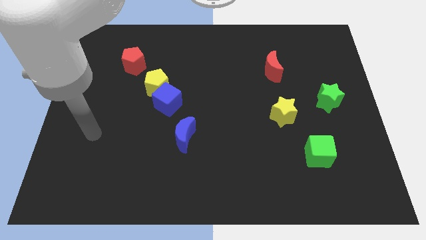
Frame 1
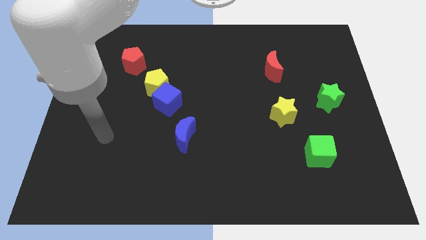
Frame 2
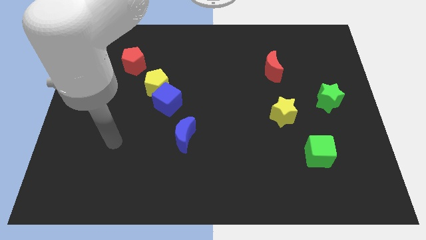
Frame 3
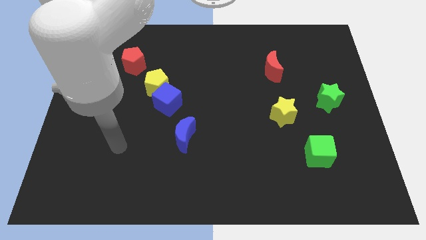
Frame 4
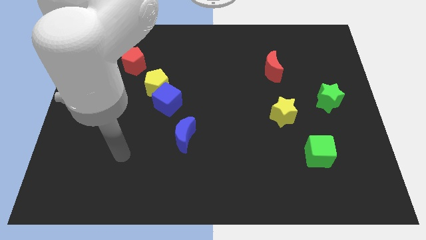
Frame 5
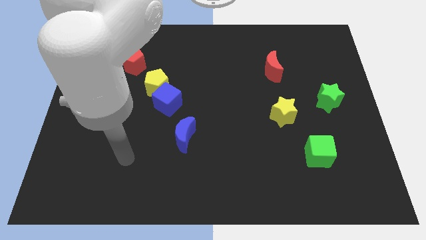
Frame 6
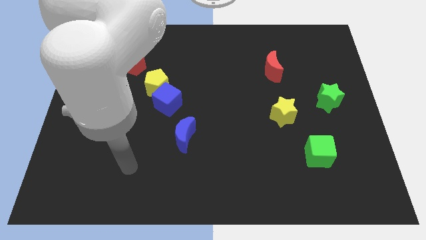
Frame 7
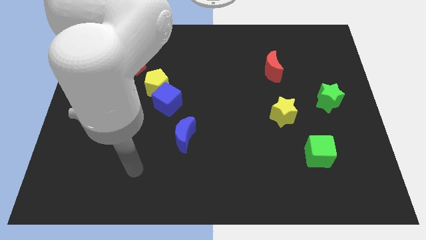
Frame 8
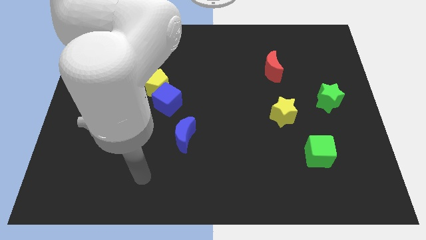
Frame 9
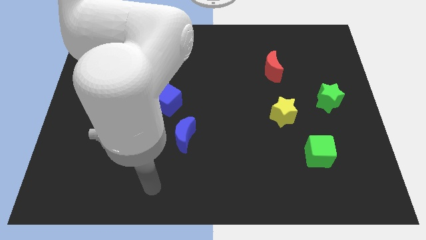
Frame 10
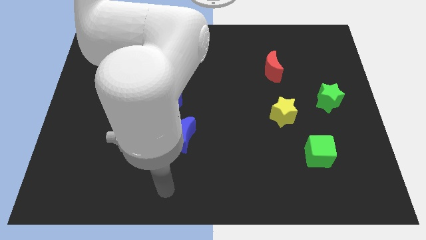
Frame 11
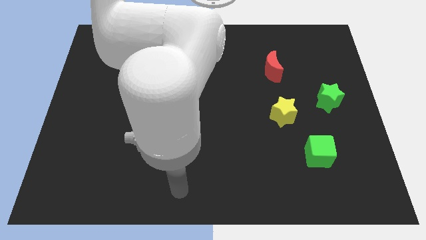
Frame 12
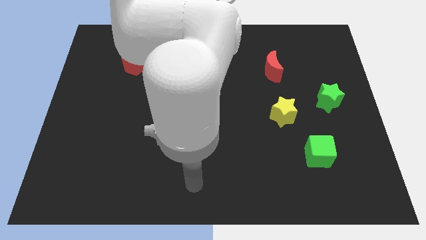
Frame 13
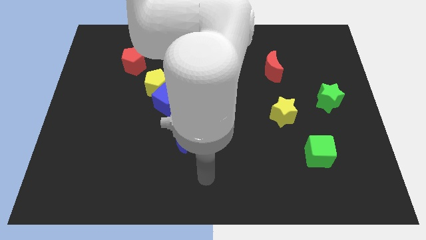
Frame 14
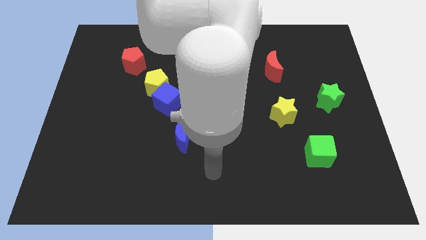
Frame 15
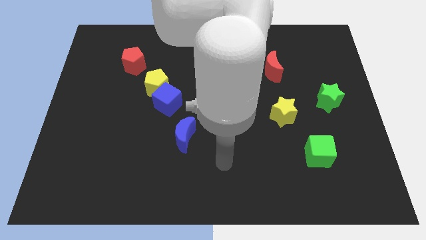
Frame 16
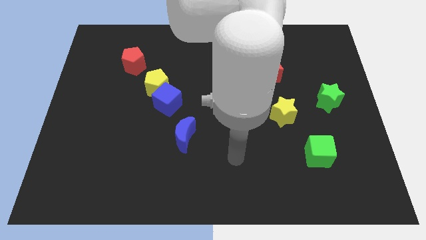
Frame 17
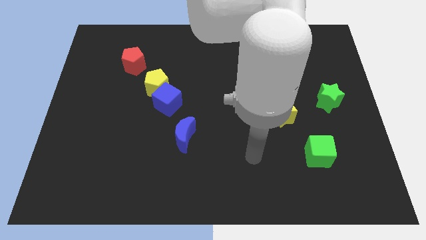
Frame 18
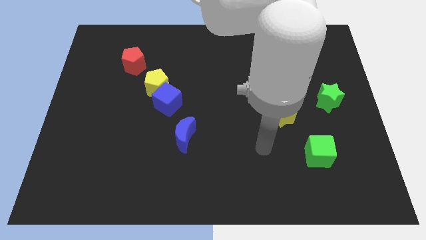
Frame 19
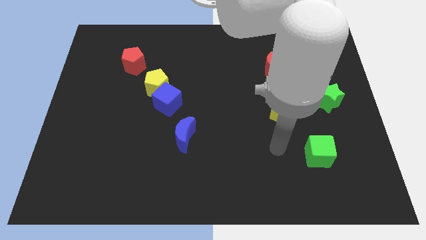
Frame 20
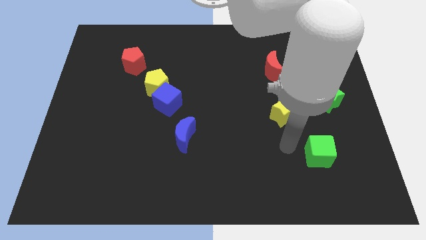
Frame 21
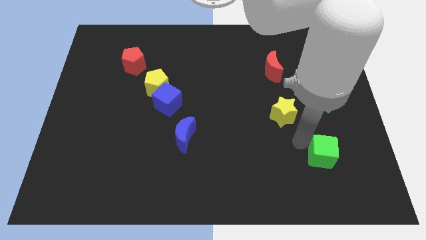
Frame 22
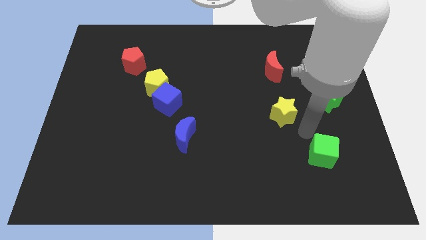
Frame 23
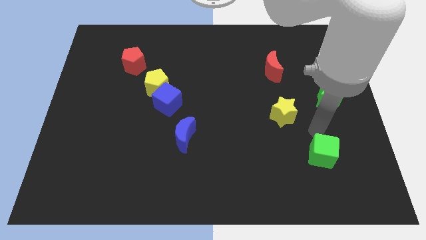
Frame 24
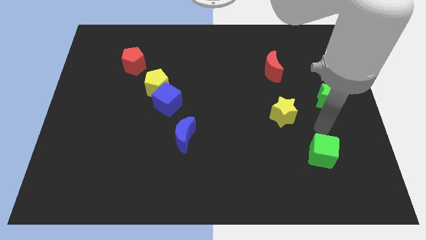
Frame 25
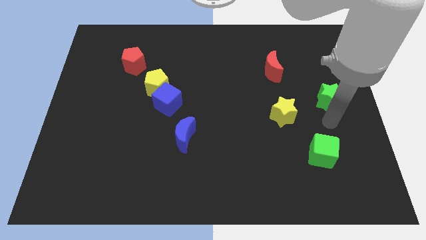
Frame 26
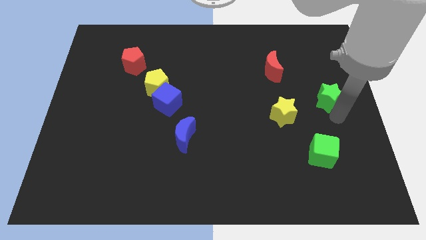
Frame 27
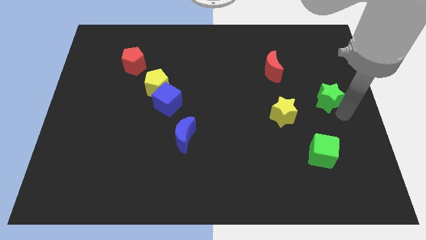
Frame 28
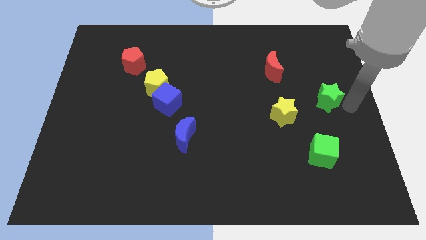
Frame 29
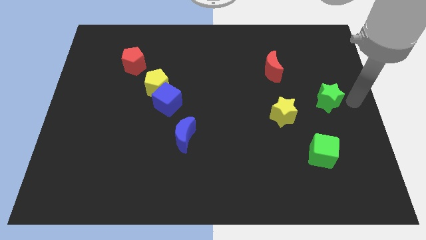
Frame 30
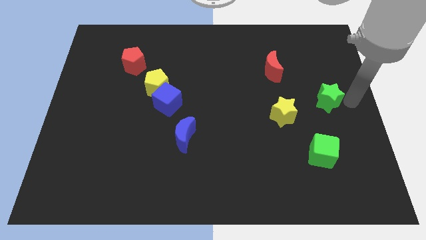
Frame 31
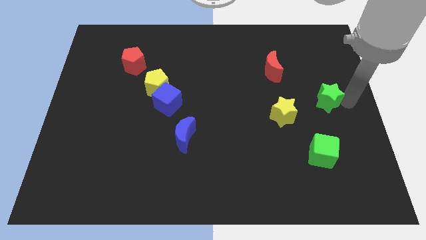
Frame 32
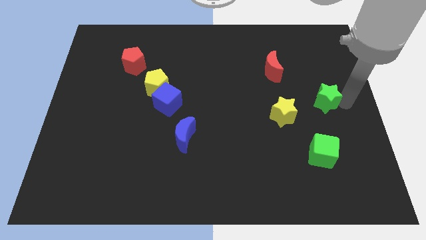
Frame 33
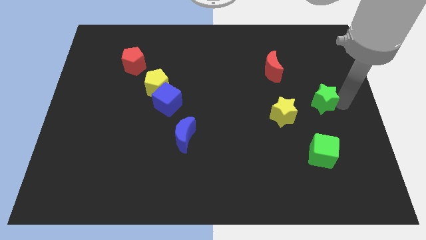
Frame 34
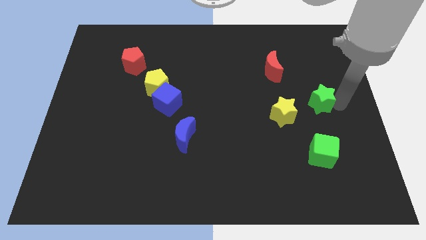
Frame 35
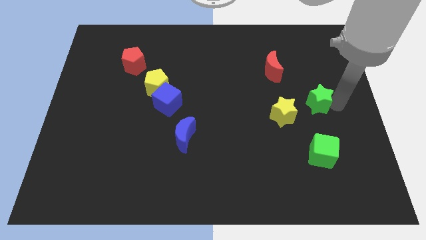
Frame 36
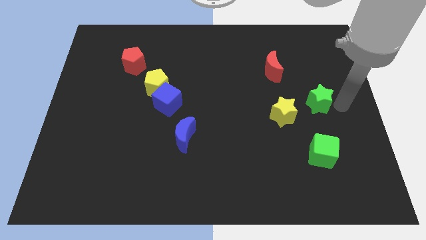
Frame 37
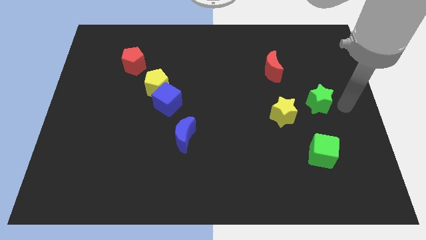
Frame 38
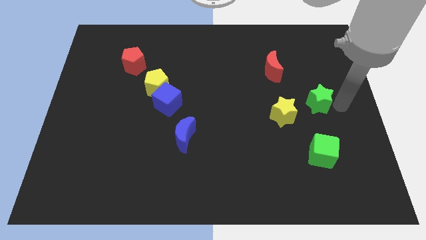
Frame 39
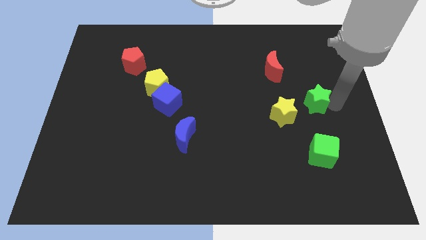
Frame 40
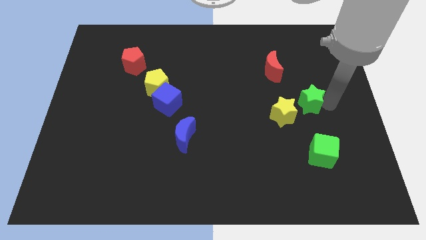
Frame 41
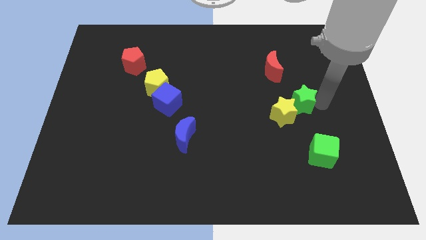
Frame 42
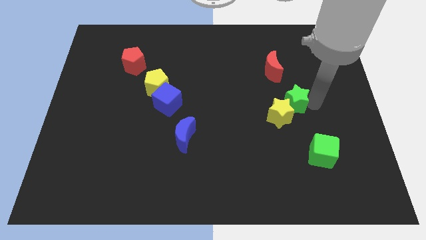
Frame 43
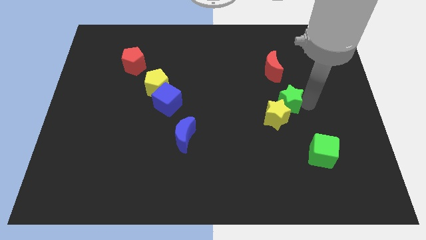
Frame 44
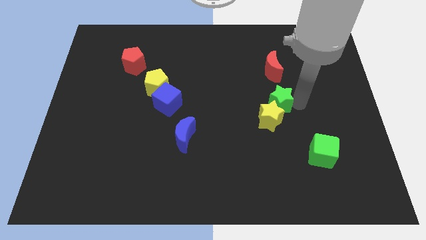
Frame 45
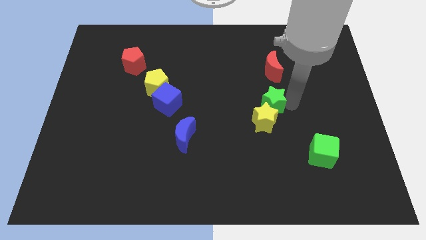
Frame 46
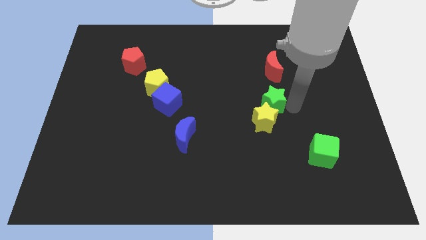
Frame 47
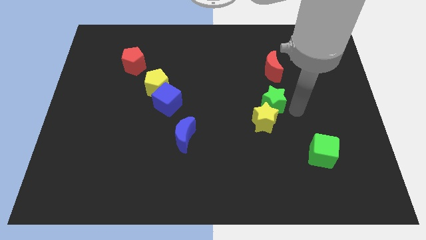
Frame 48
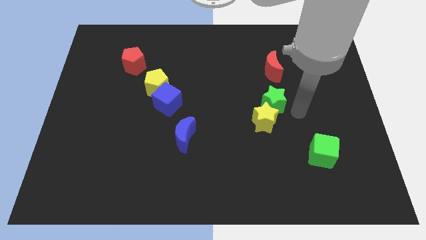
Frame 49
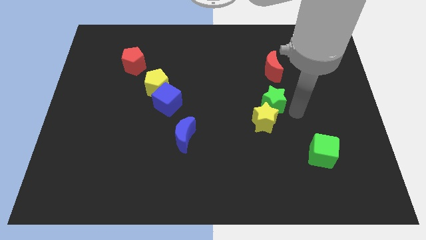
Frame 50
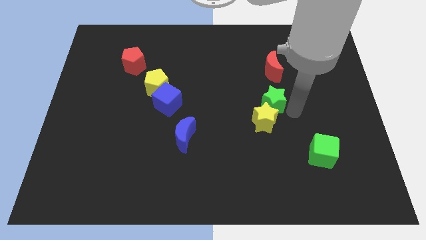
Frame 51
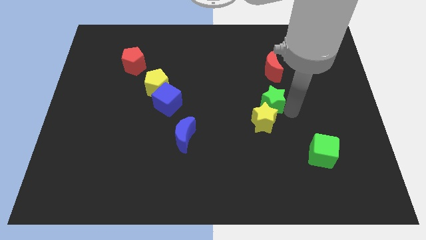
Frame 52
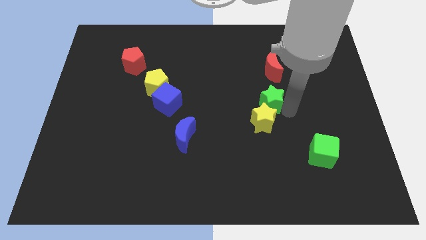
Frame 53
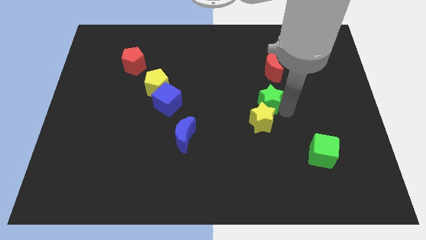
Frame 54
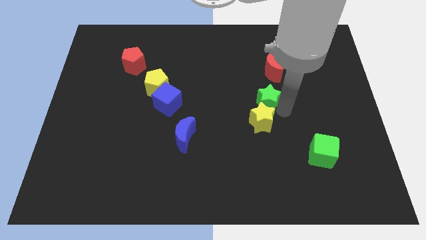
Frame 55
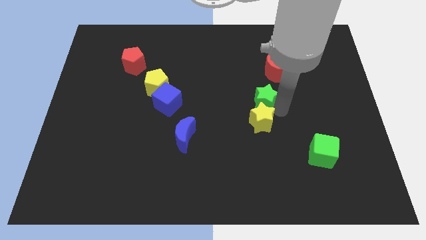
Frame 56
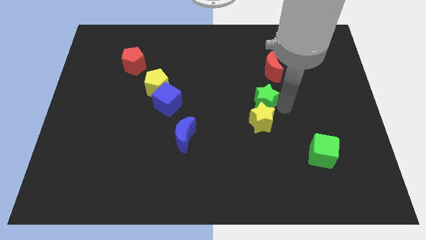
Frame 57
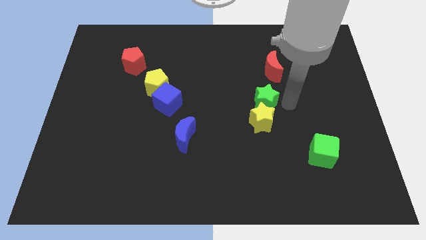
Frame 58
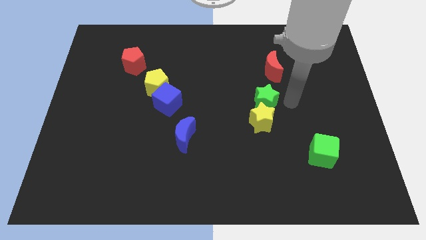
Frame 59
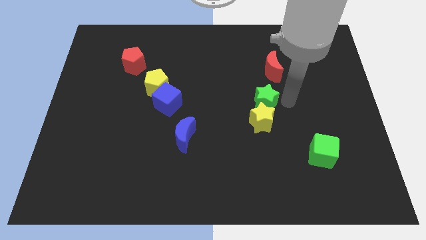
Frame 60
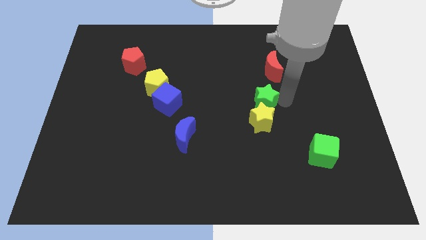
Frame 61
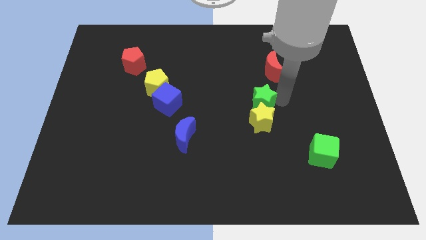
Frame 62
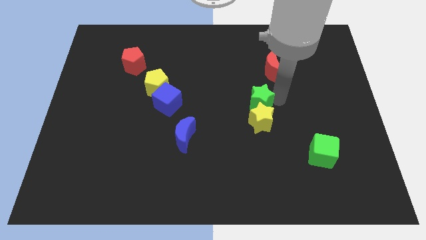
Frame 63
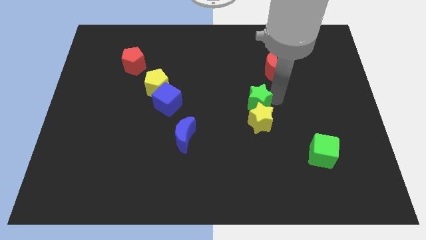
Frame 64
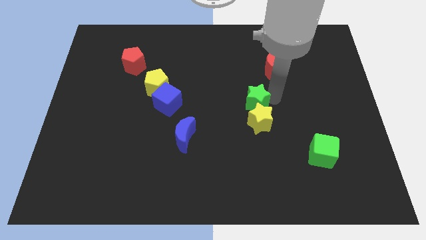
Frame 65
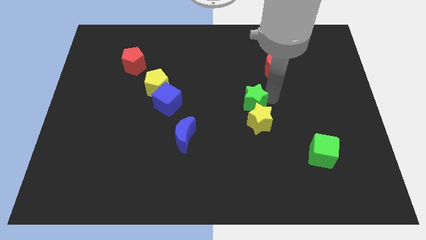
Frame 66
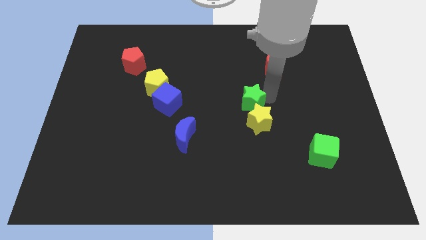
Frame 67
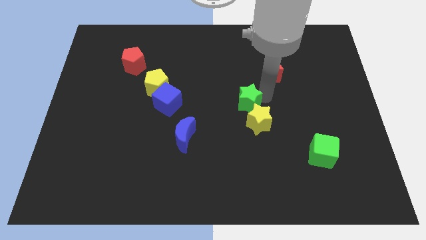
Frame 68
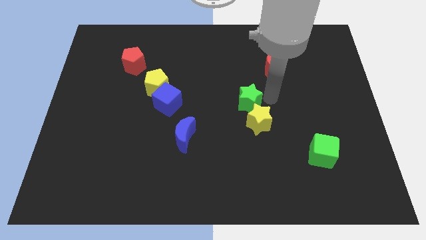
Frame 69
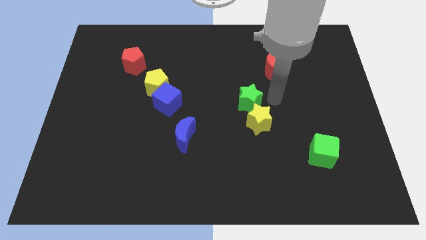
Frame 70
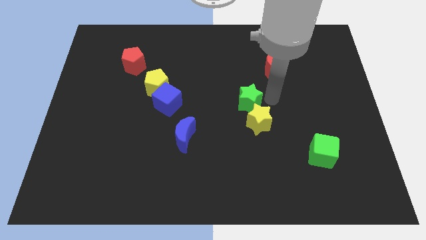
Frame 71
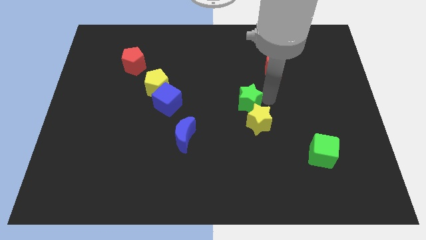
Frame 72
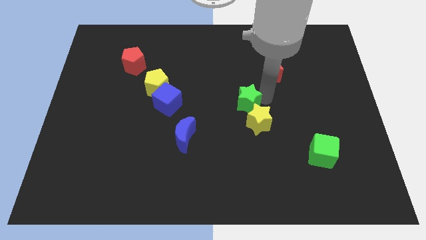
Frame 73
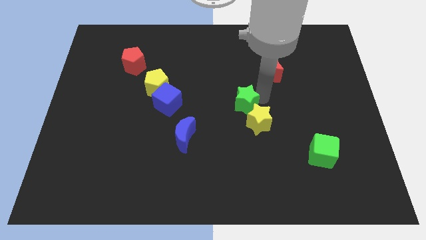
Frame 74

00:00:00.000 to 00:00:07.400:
move the green star to the left

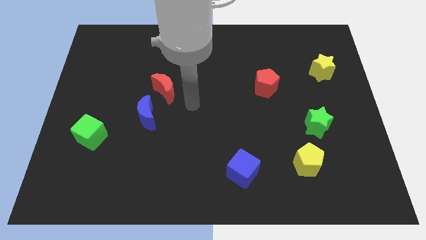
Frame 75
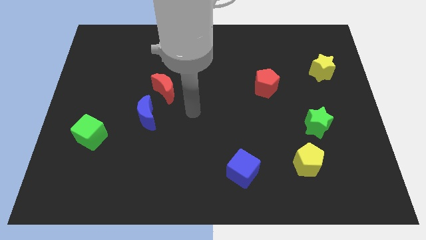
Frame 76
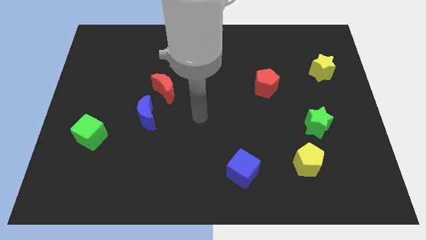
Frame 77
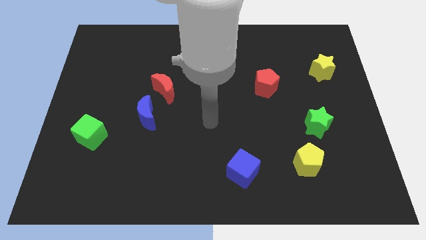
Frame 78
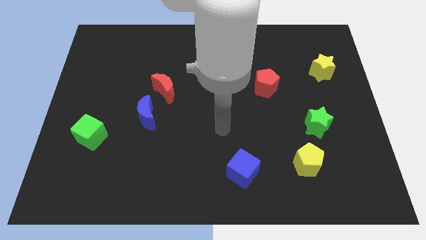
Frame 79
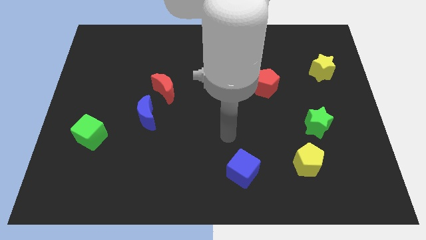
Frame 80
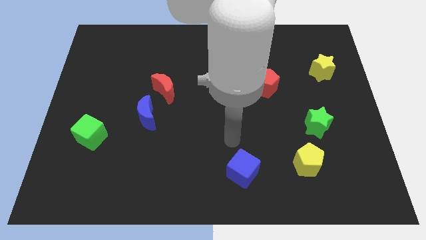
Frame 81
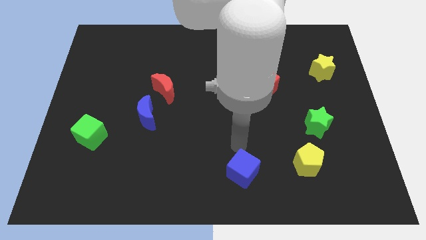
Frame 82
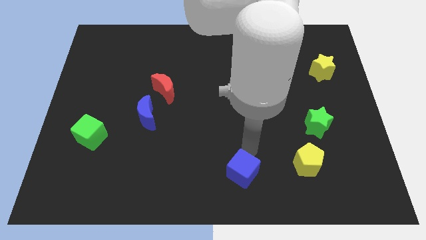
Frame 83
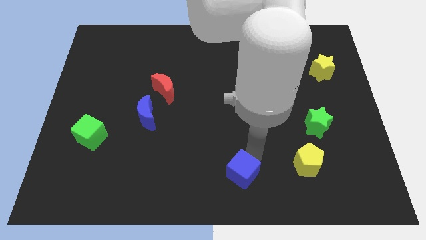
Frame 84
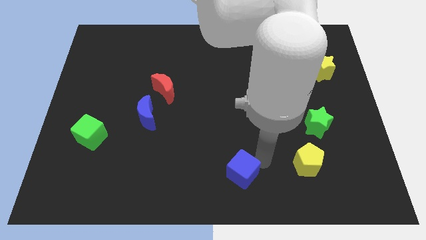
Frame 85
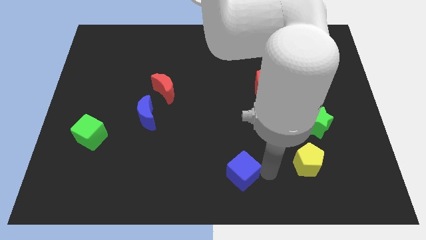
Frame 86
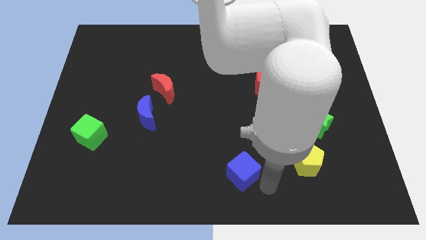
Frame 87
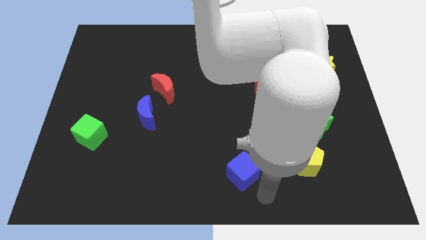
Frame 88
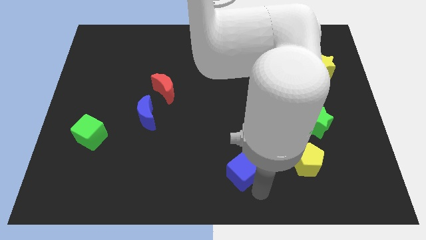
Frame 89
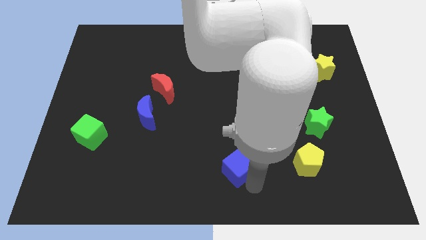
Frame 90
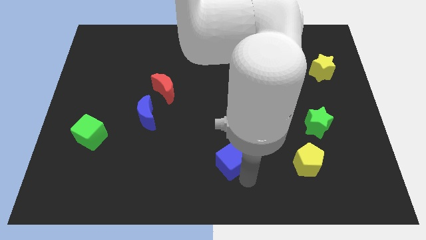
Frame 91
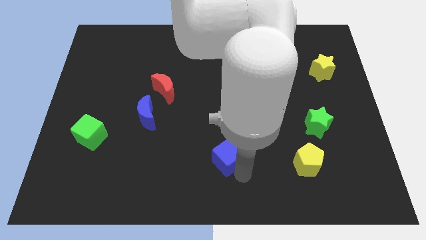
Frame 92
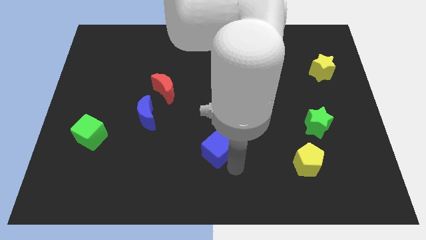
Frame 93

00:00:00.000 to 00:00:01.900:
slightly slide the blue cube diagonally up and to the left
